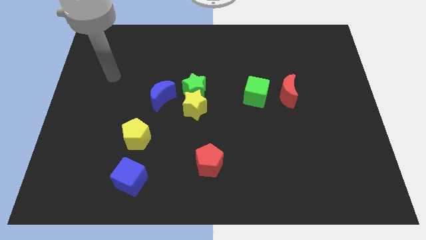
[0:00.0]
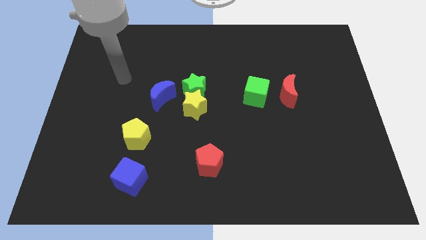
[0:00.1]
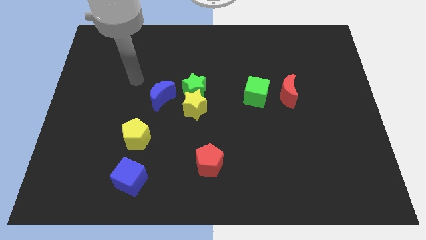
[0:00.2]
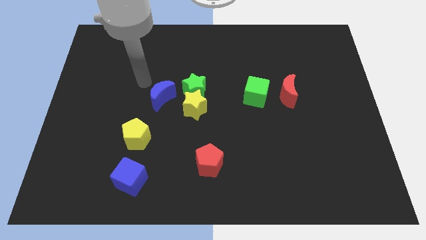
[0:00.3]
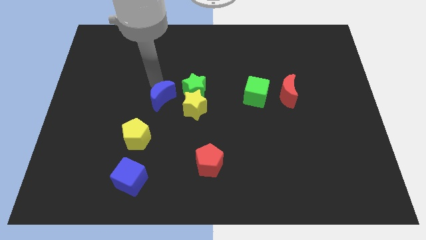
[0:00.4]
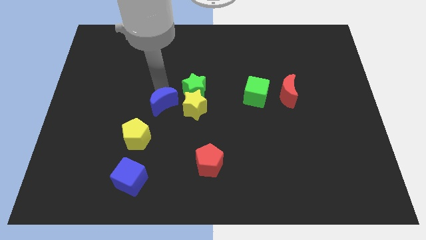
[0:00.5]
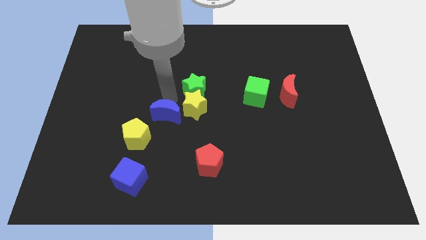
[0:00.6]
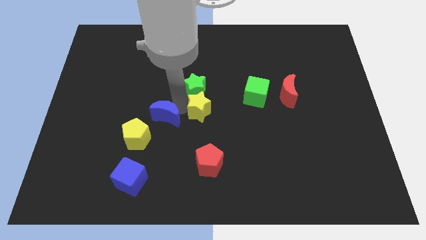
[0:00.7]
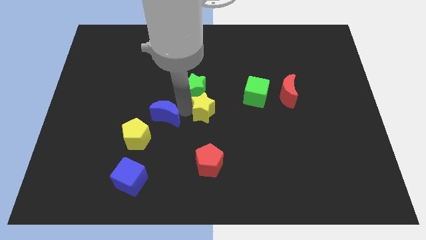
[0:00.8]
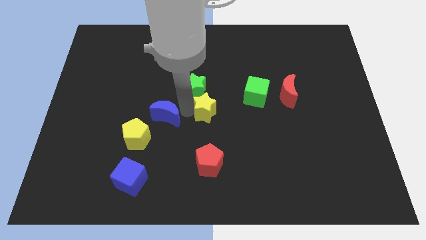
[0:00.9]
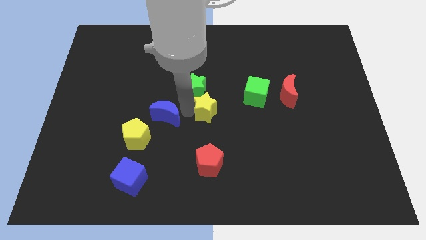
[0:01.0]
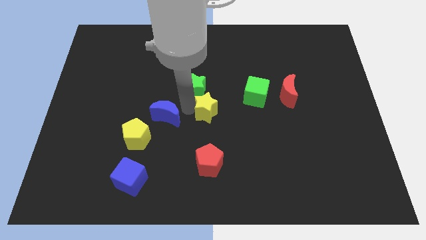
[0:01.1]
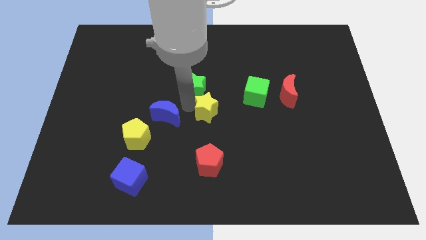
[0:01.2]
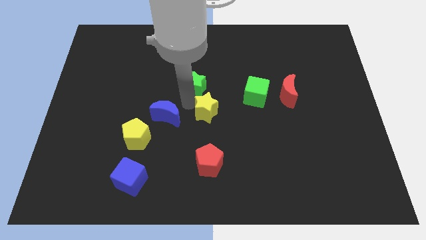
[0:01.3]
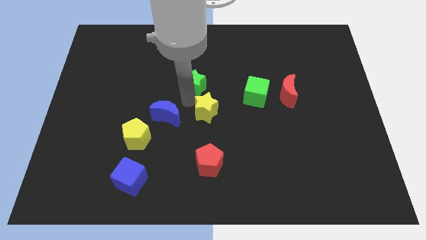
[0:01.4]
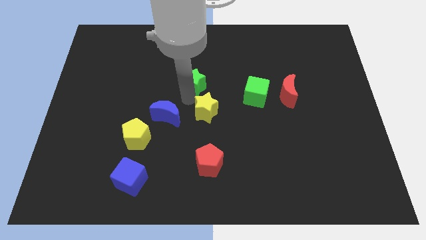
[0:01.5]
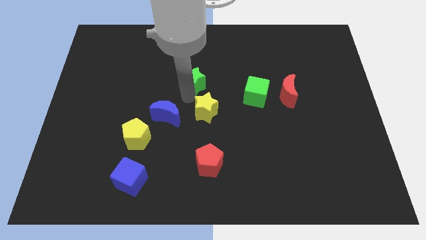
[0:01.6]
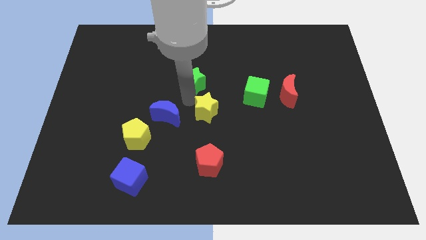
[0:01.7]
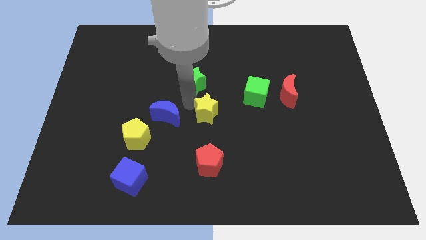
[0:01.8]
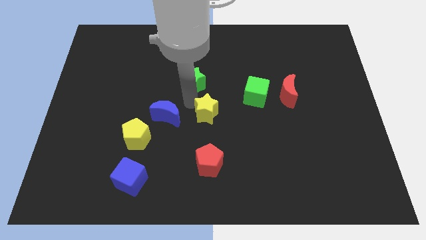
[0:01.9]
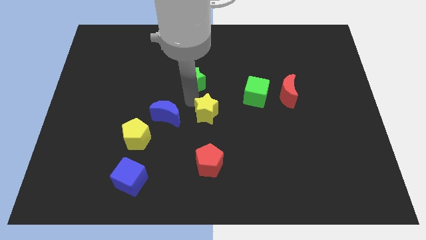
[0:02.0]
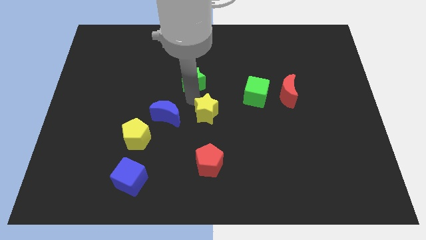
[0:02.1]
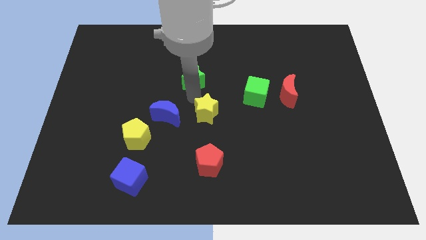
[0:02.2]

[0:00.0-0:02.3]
move the green star away from the yellow star and blue moon

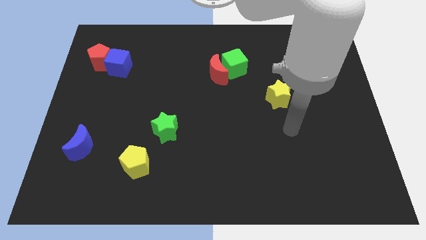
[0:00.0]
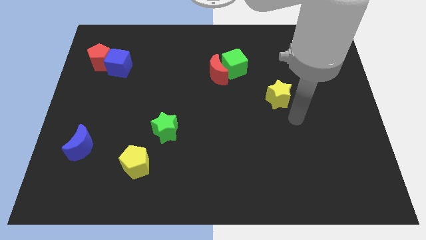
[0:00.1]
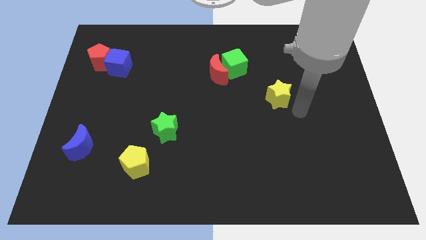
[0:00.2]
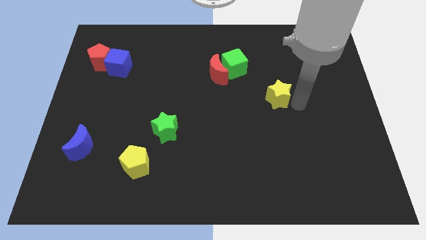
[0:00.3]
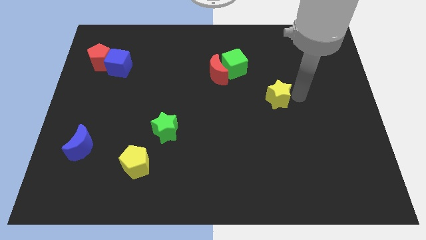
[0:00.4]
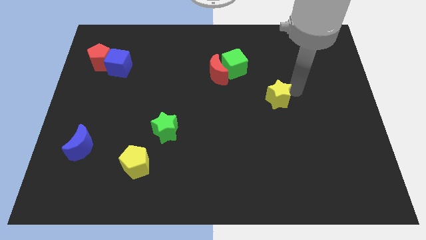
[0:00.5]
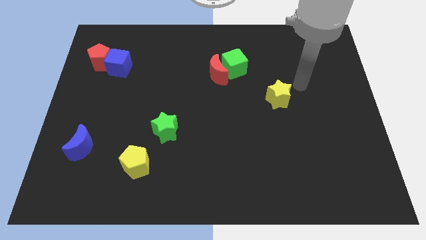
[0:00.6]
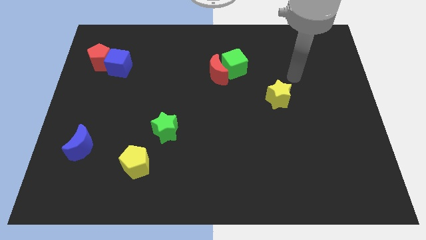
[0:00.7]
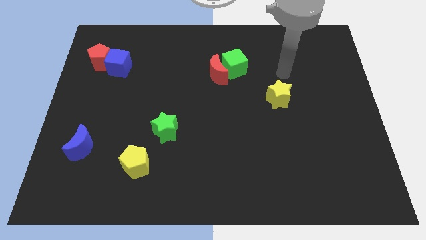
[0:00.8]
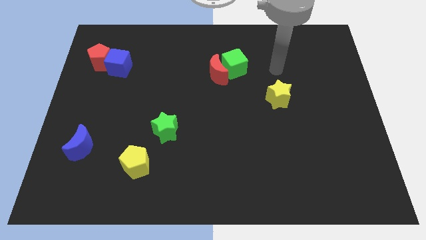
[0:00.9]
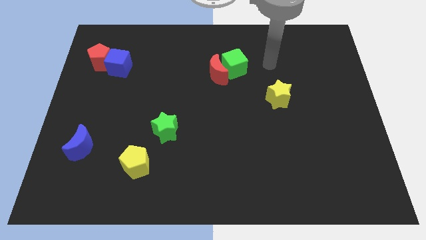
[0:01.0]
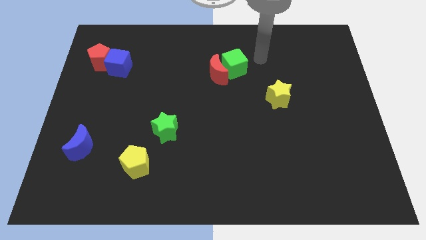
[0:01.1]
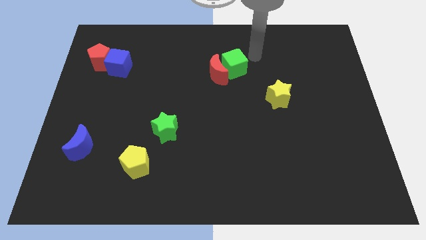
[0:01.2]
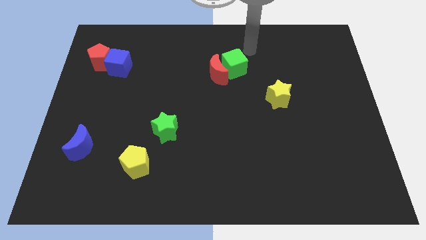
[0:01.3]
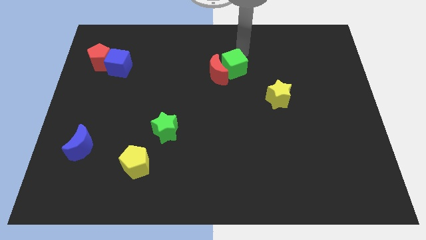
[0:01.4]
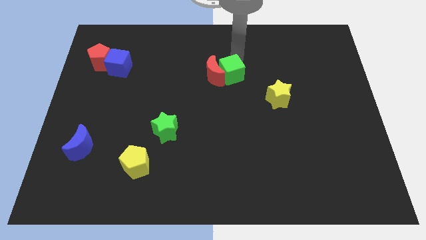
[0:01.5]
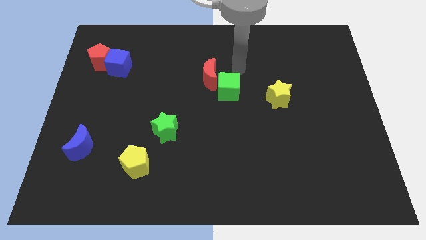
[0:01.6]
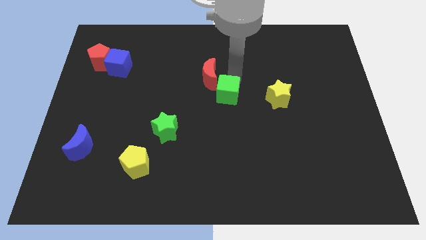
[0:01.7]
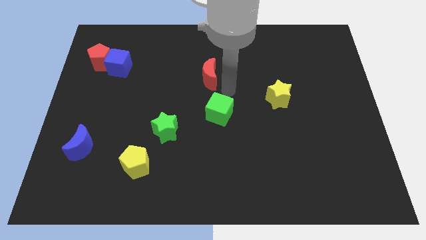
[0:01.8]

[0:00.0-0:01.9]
separate the red moon from the green cube

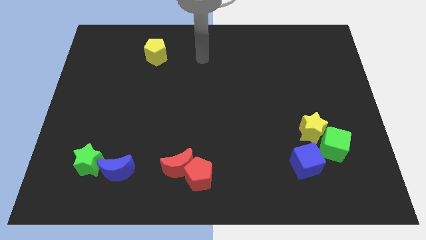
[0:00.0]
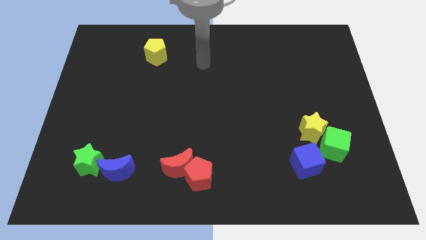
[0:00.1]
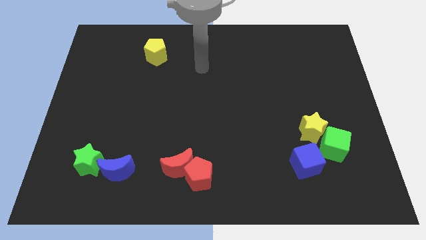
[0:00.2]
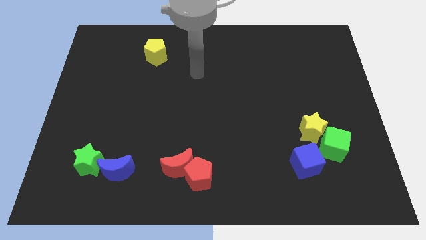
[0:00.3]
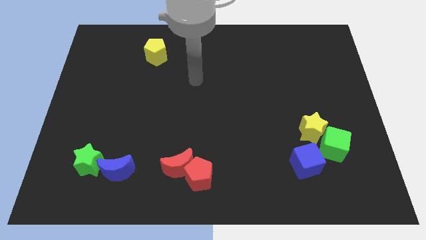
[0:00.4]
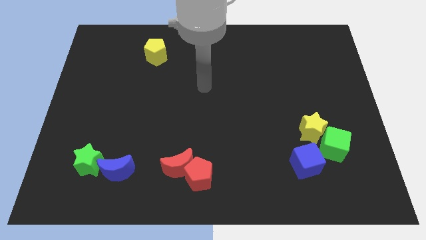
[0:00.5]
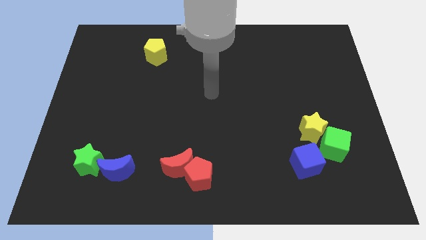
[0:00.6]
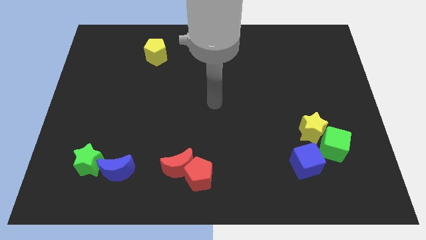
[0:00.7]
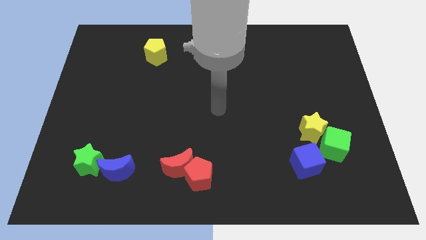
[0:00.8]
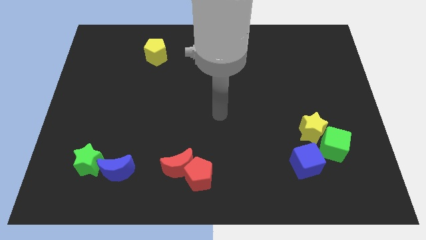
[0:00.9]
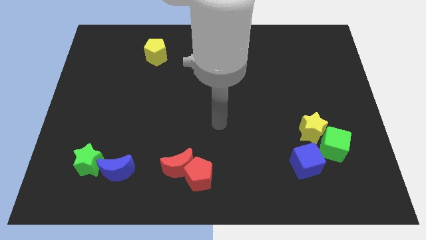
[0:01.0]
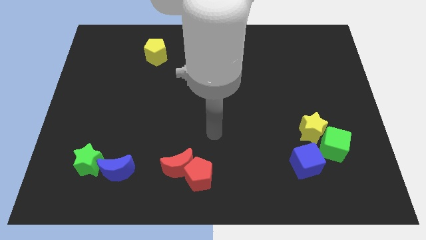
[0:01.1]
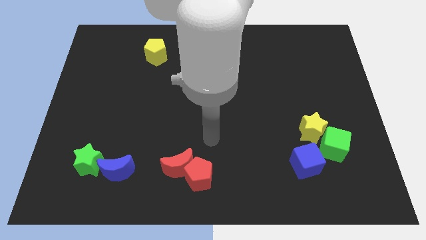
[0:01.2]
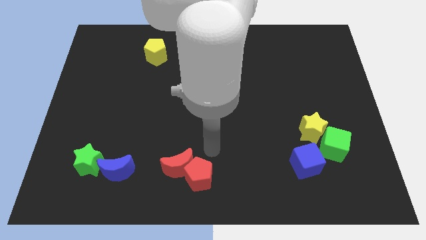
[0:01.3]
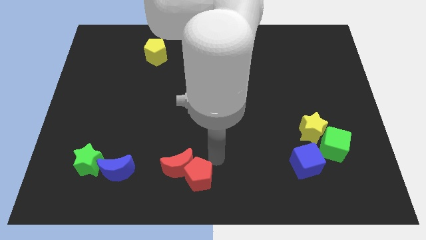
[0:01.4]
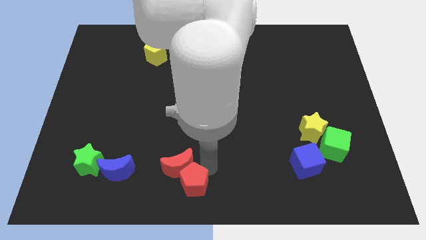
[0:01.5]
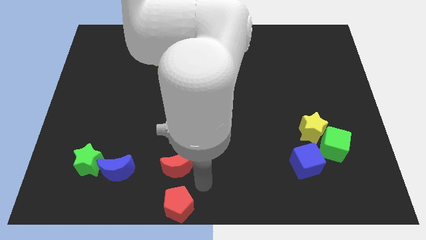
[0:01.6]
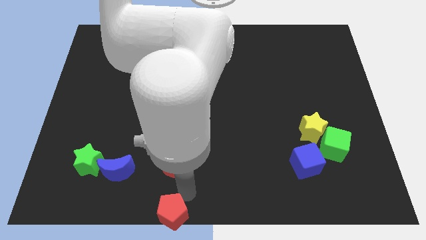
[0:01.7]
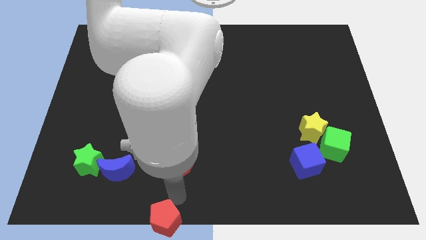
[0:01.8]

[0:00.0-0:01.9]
separate the red moon from the red pentagon

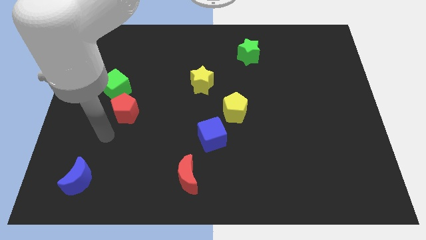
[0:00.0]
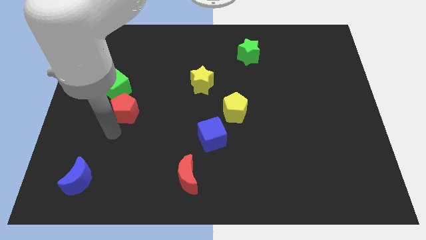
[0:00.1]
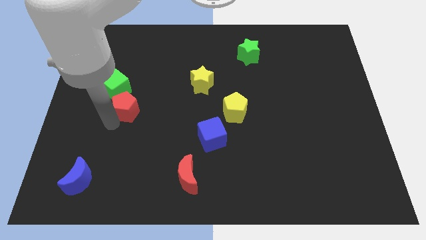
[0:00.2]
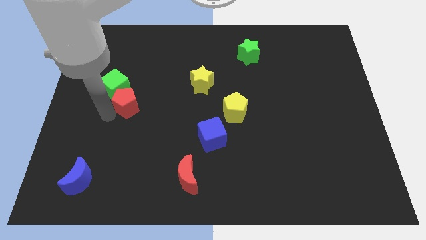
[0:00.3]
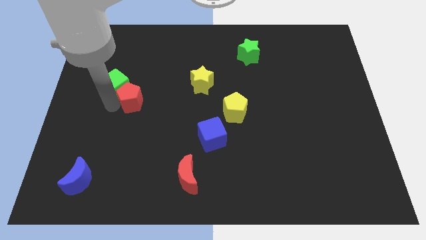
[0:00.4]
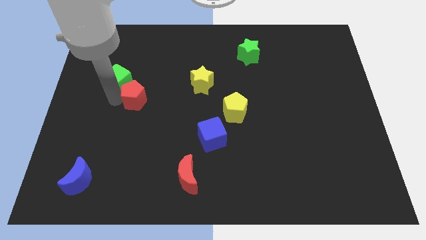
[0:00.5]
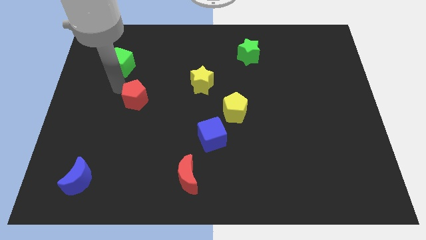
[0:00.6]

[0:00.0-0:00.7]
move the red pentagon away from the green cube

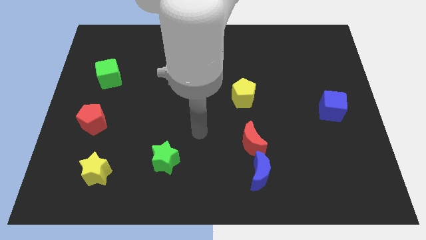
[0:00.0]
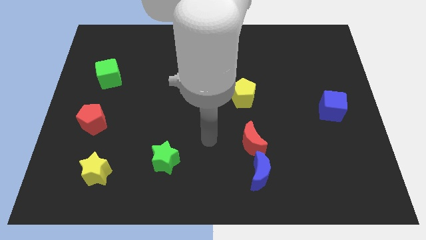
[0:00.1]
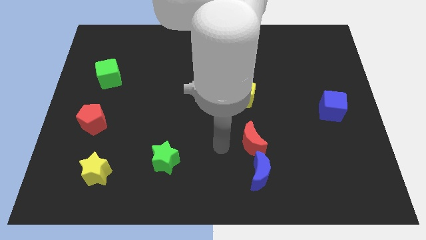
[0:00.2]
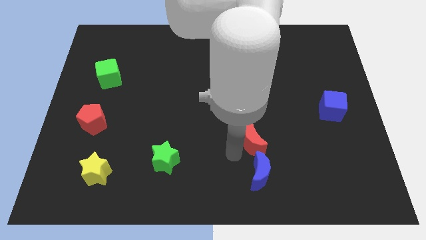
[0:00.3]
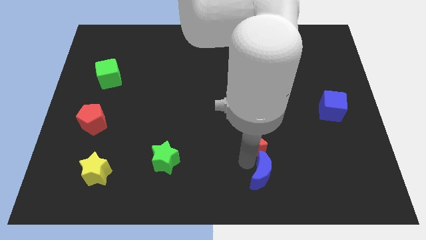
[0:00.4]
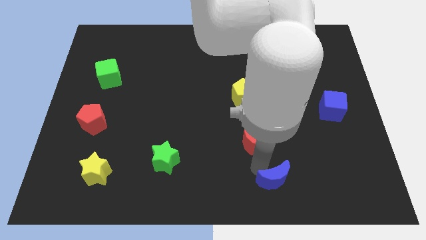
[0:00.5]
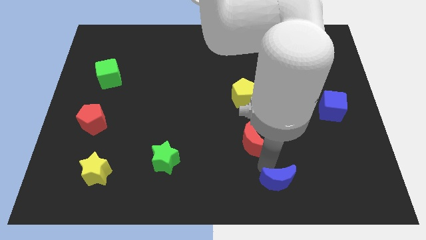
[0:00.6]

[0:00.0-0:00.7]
pull the red moon apart from the blue moon

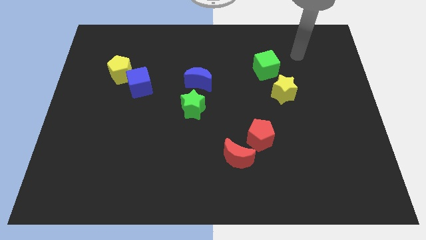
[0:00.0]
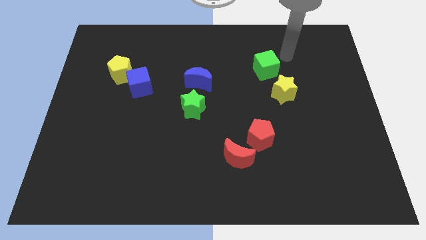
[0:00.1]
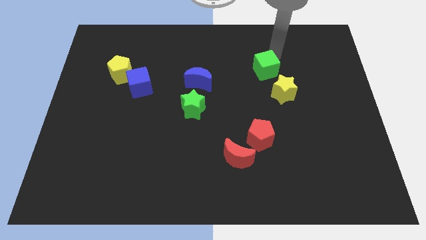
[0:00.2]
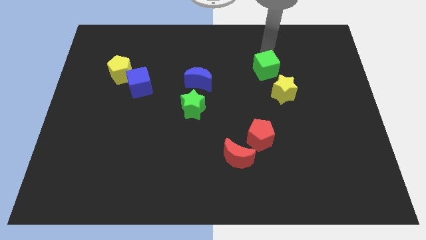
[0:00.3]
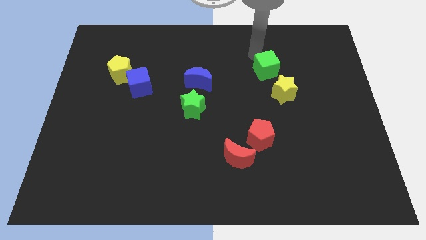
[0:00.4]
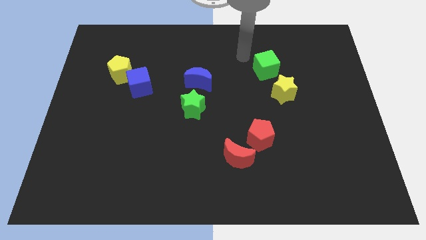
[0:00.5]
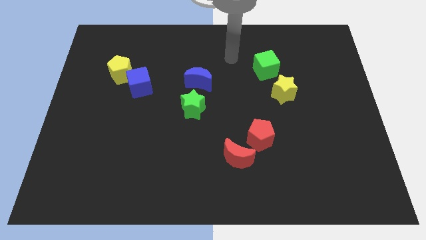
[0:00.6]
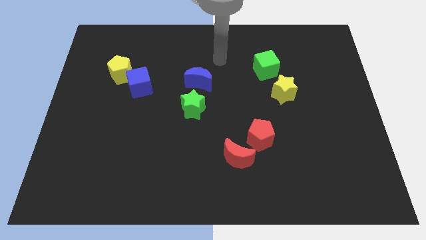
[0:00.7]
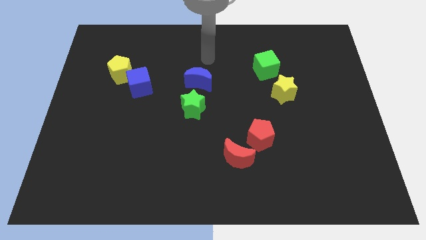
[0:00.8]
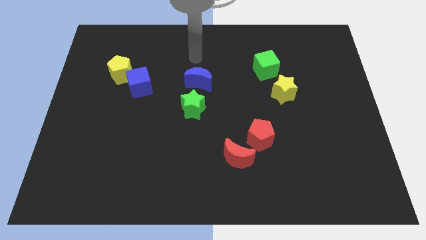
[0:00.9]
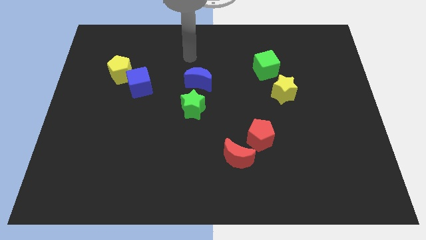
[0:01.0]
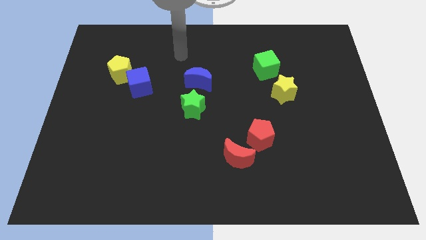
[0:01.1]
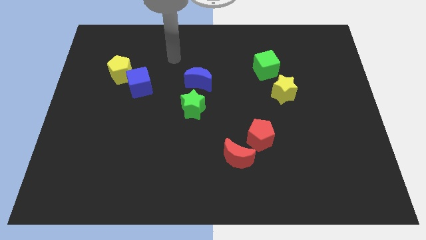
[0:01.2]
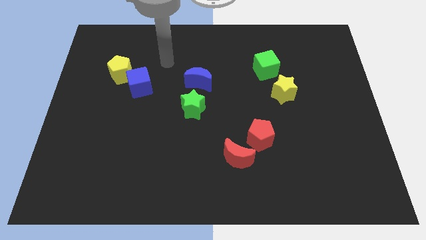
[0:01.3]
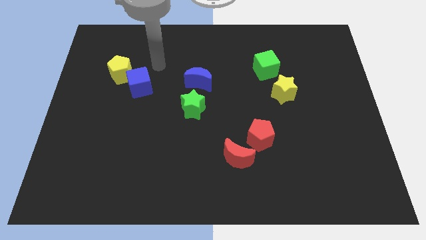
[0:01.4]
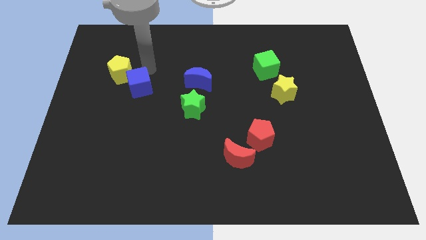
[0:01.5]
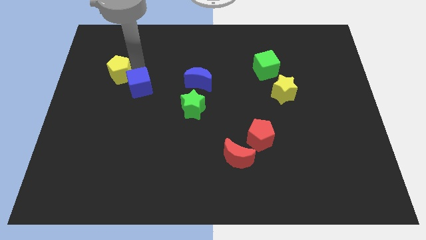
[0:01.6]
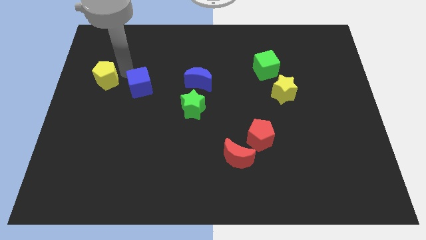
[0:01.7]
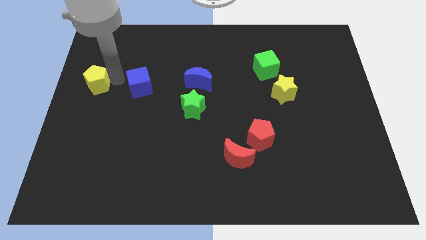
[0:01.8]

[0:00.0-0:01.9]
separate the blue cube from the yellow pentagon
